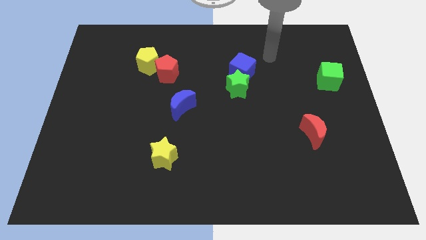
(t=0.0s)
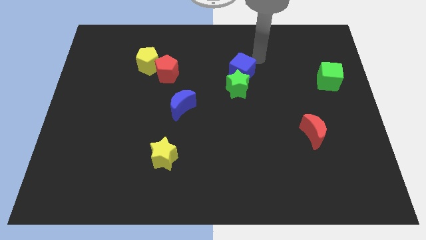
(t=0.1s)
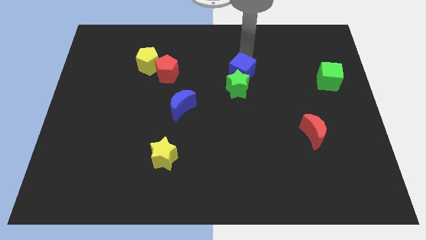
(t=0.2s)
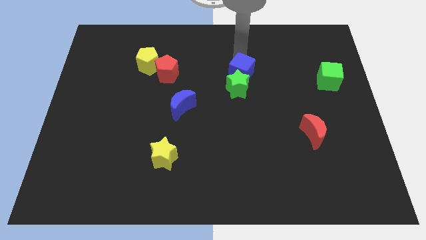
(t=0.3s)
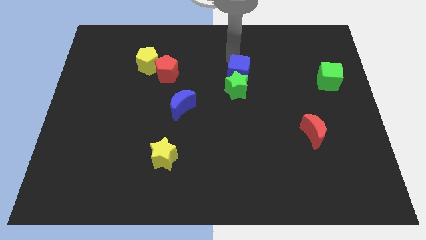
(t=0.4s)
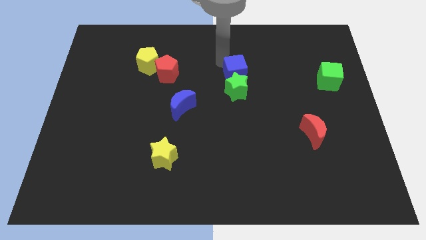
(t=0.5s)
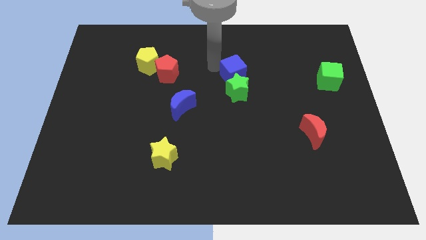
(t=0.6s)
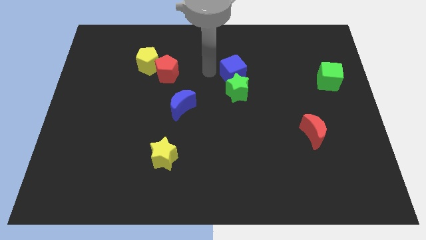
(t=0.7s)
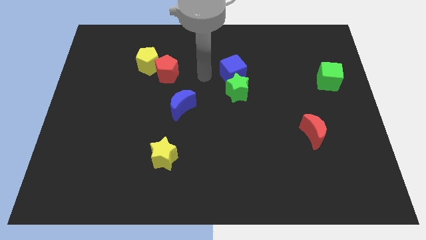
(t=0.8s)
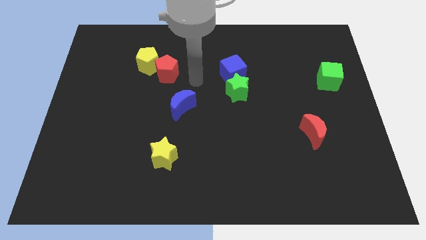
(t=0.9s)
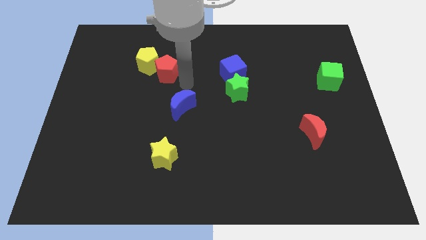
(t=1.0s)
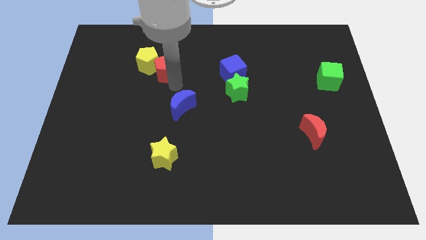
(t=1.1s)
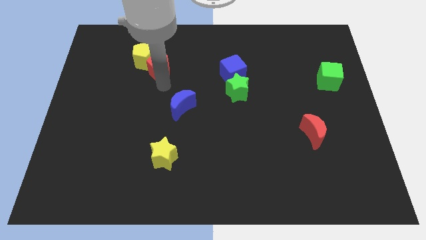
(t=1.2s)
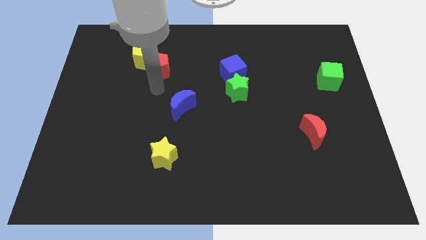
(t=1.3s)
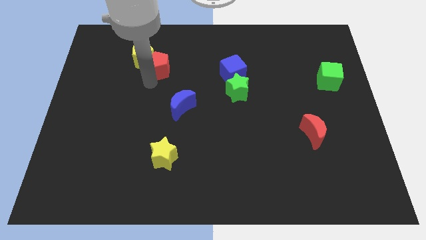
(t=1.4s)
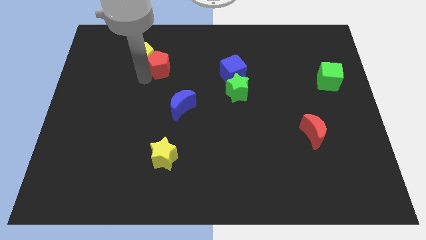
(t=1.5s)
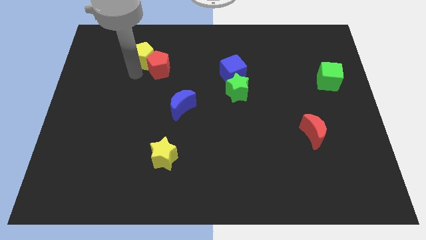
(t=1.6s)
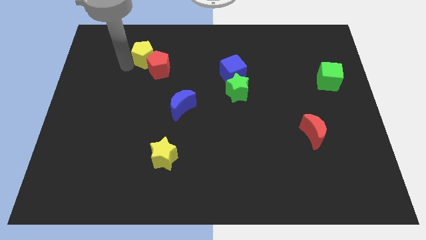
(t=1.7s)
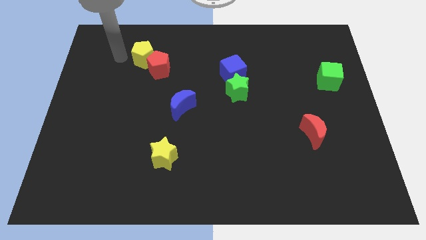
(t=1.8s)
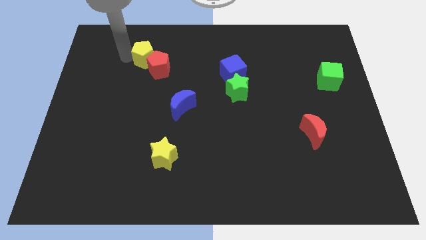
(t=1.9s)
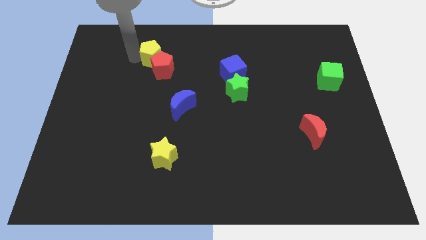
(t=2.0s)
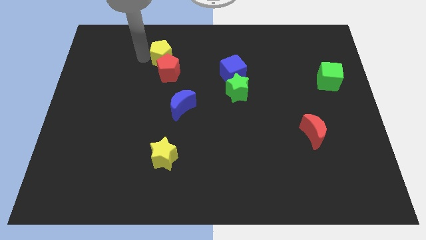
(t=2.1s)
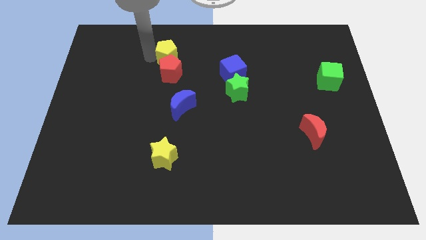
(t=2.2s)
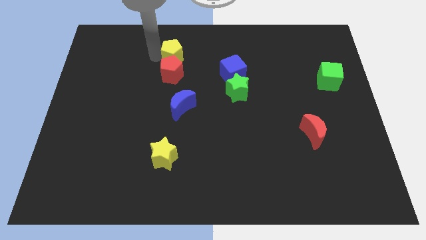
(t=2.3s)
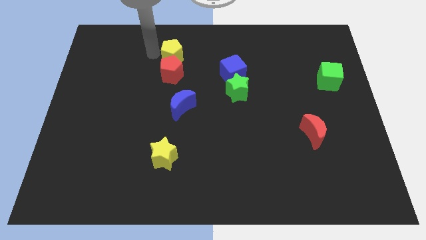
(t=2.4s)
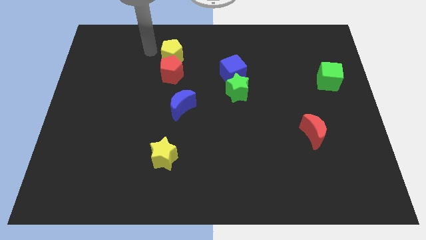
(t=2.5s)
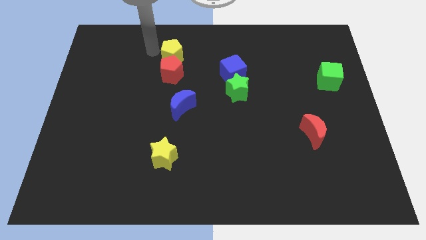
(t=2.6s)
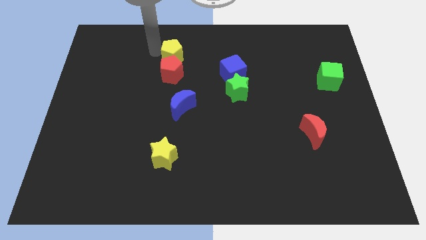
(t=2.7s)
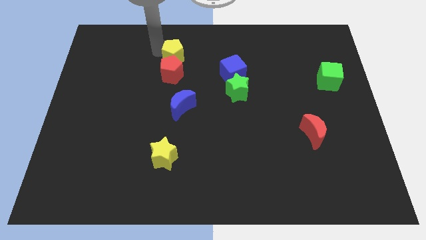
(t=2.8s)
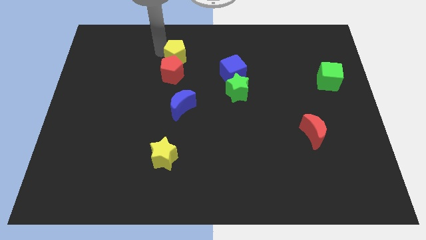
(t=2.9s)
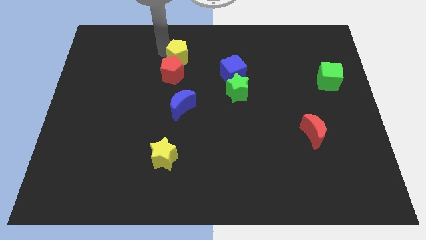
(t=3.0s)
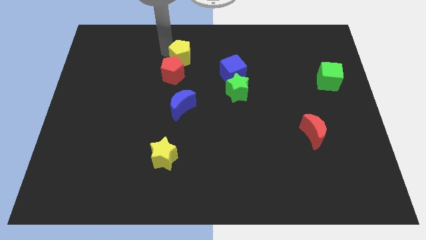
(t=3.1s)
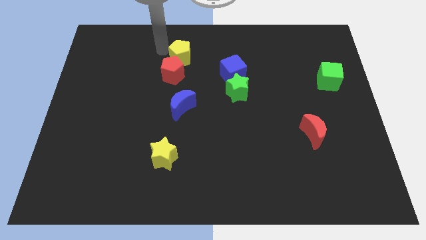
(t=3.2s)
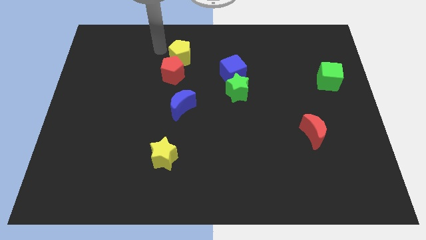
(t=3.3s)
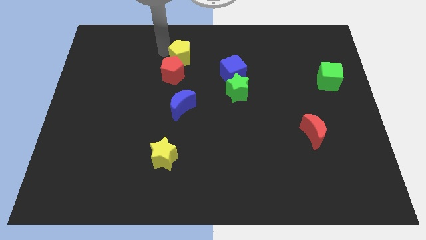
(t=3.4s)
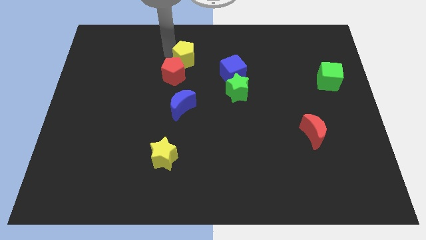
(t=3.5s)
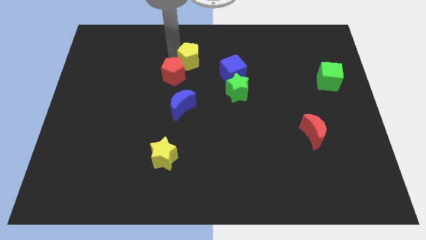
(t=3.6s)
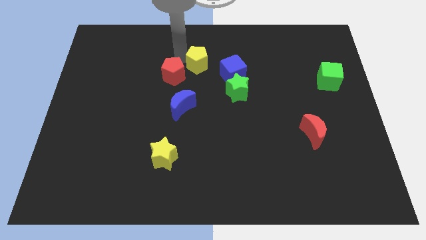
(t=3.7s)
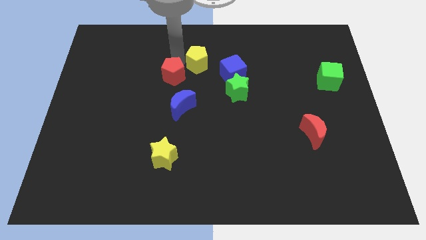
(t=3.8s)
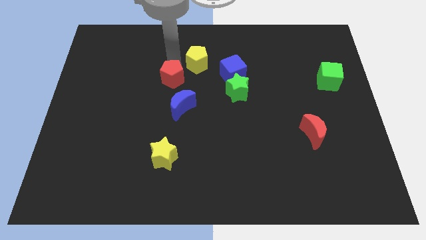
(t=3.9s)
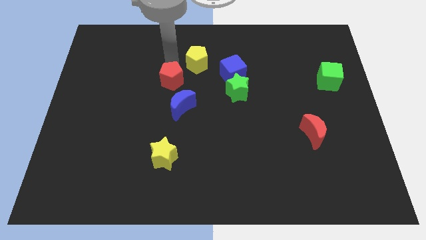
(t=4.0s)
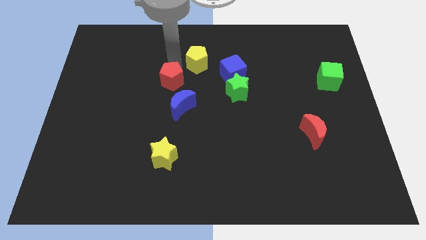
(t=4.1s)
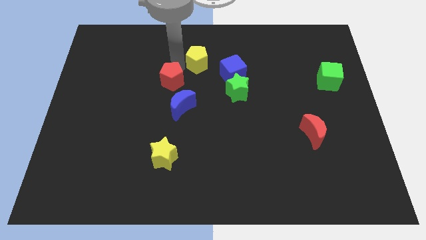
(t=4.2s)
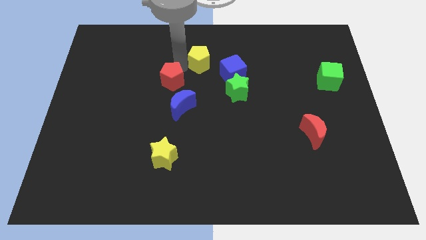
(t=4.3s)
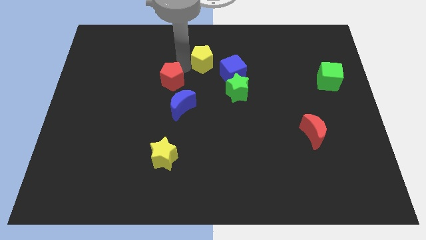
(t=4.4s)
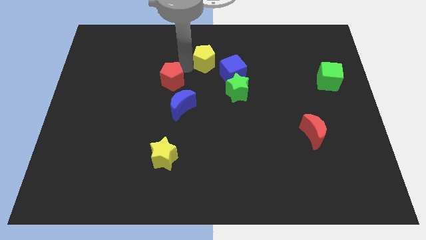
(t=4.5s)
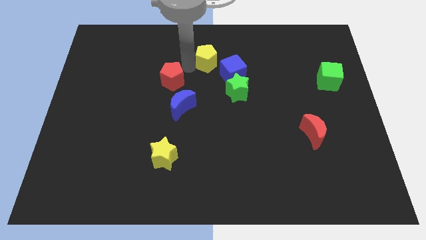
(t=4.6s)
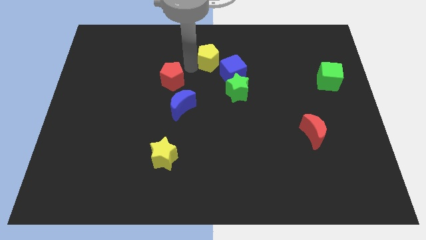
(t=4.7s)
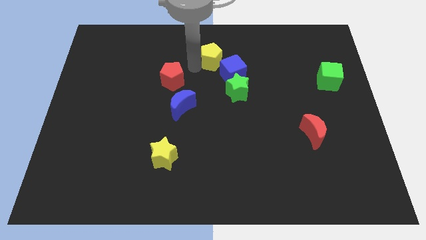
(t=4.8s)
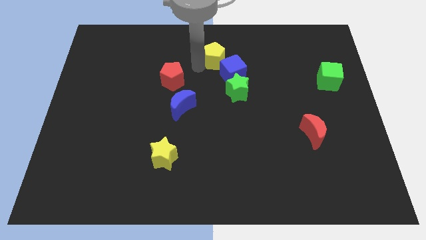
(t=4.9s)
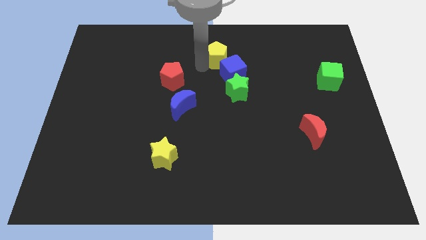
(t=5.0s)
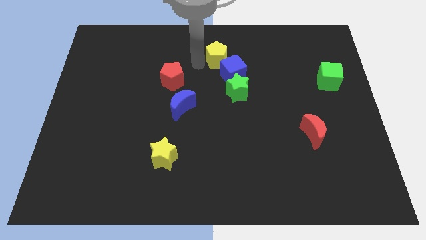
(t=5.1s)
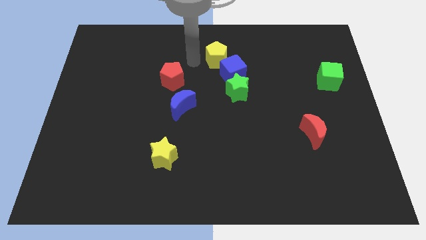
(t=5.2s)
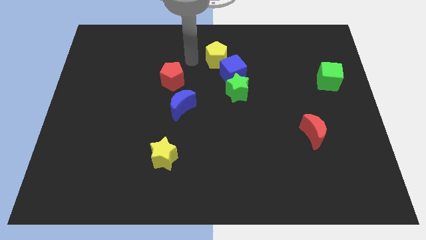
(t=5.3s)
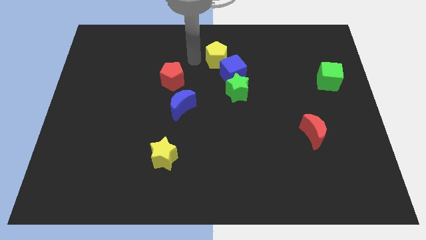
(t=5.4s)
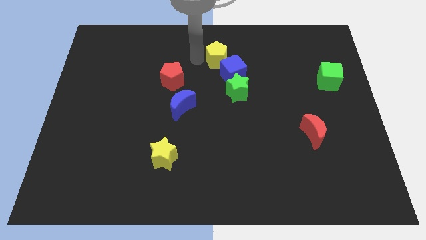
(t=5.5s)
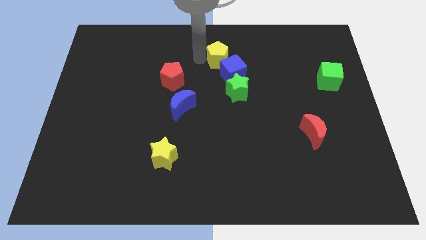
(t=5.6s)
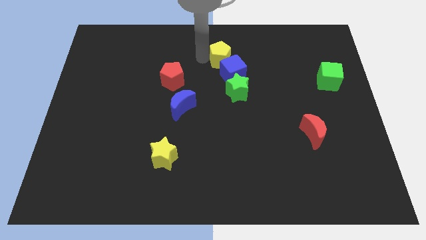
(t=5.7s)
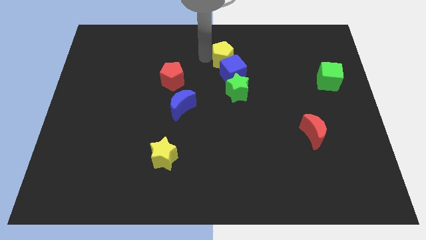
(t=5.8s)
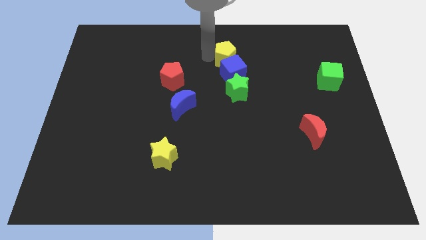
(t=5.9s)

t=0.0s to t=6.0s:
push the yellow pentagon to the right

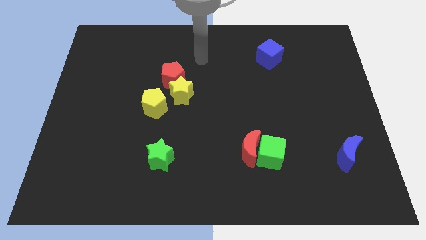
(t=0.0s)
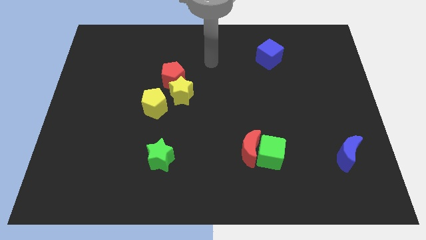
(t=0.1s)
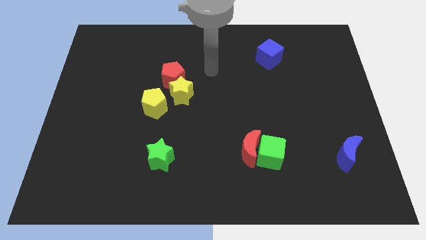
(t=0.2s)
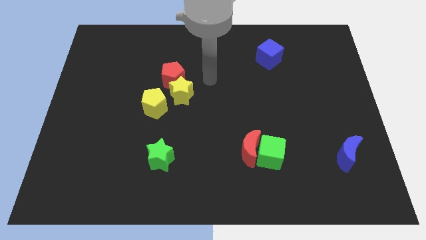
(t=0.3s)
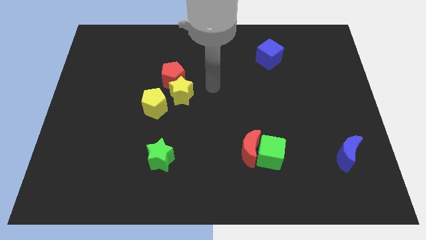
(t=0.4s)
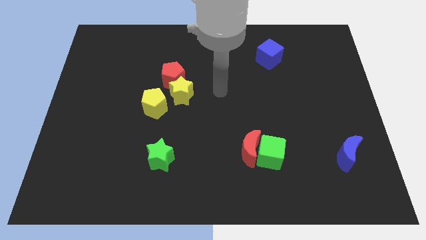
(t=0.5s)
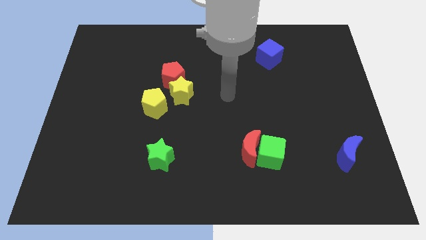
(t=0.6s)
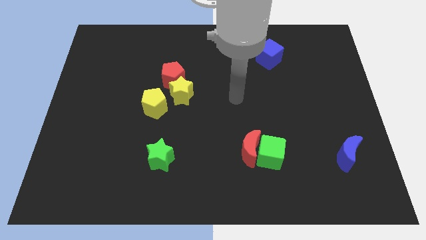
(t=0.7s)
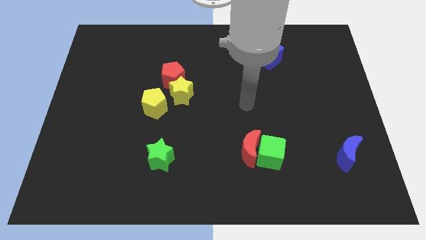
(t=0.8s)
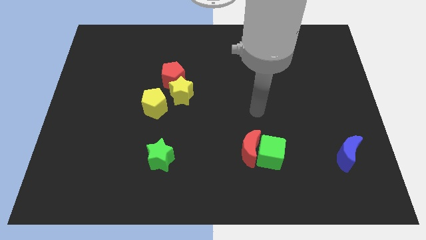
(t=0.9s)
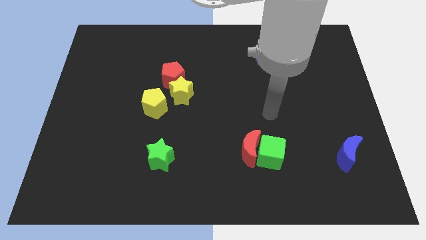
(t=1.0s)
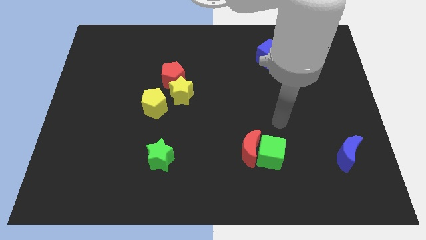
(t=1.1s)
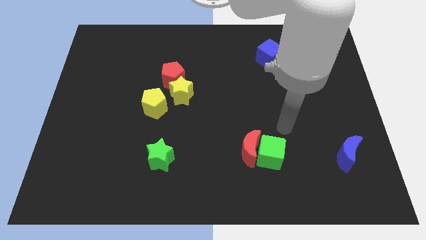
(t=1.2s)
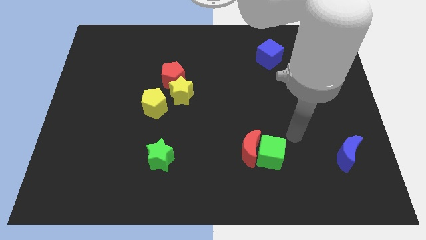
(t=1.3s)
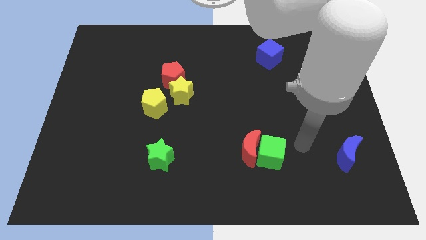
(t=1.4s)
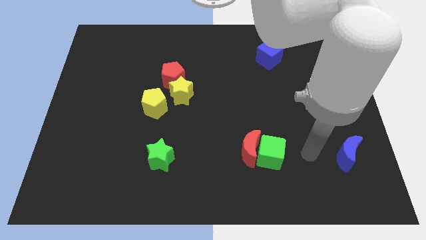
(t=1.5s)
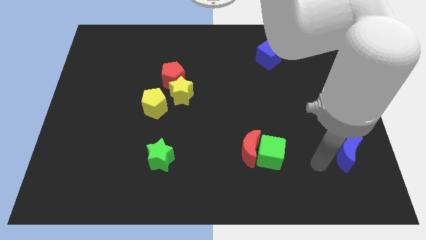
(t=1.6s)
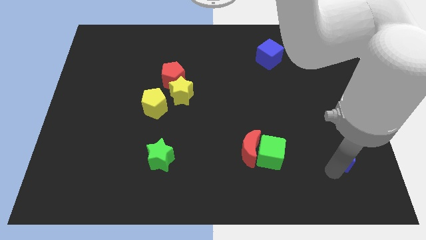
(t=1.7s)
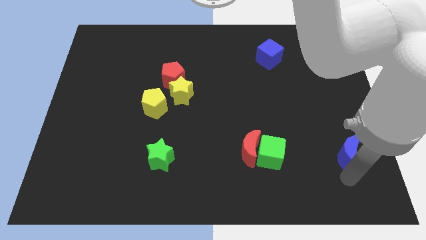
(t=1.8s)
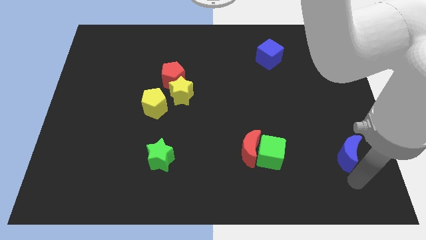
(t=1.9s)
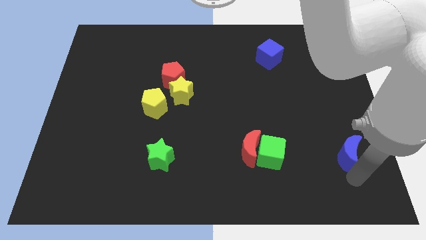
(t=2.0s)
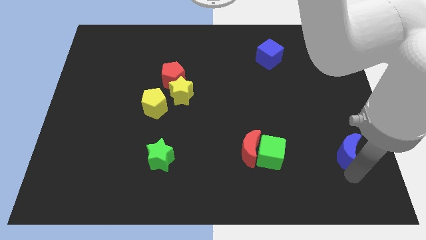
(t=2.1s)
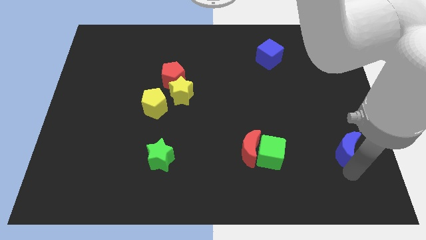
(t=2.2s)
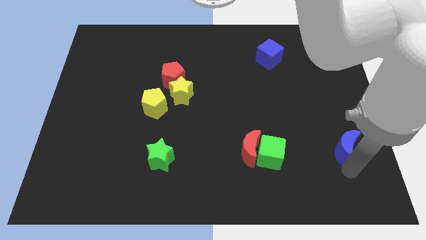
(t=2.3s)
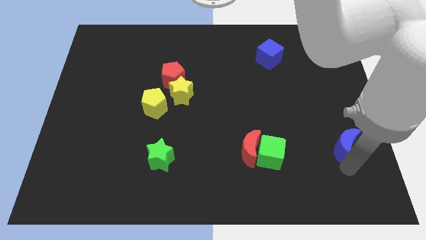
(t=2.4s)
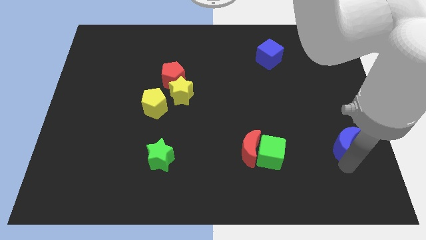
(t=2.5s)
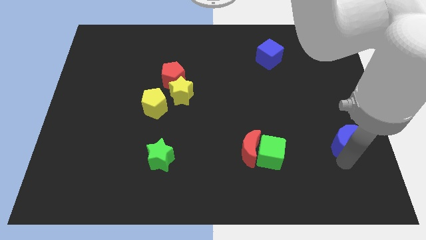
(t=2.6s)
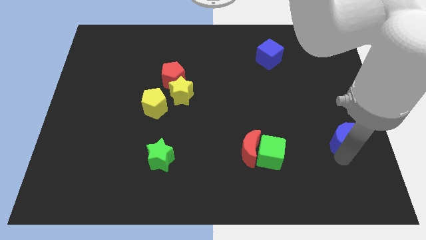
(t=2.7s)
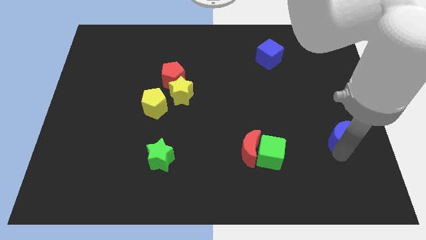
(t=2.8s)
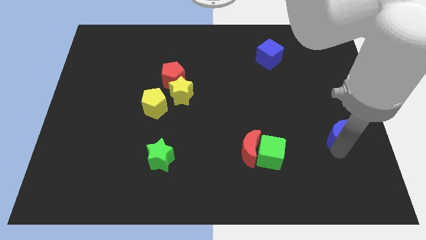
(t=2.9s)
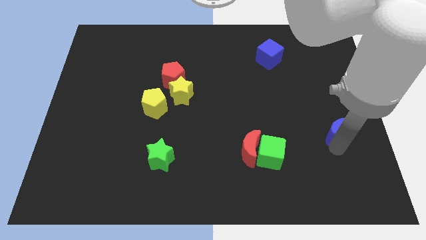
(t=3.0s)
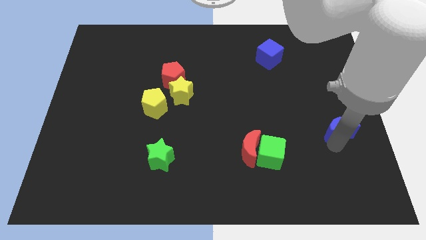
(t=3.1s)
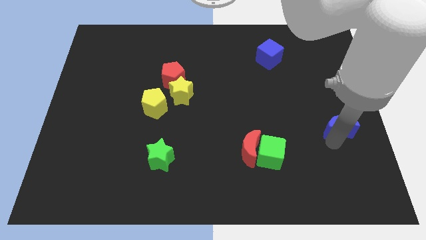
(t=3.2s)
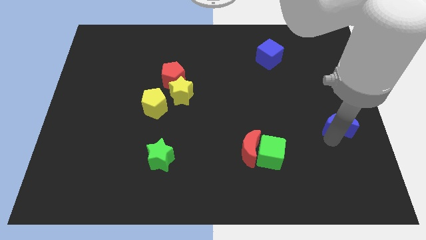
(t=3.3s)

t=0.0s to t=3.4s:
move the blue moon up somewhat
